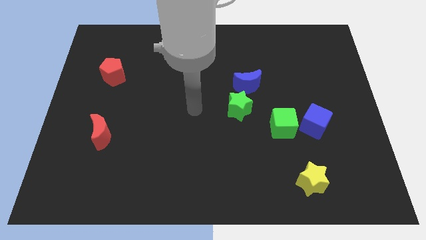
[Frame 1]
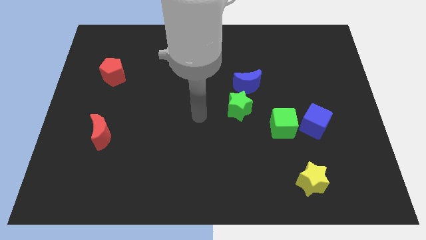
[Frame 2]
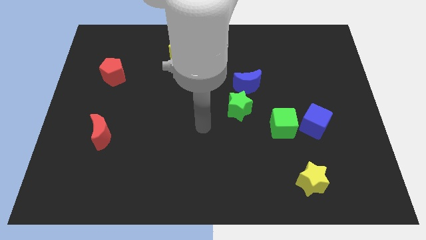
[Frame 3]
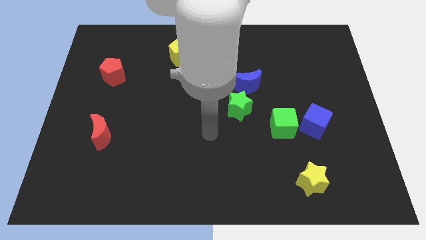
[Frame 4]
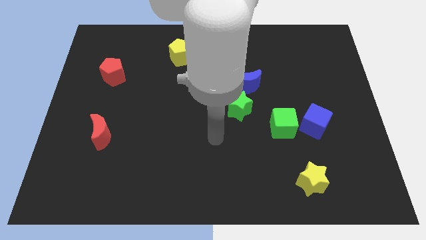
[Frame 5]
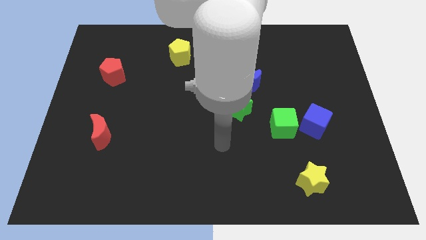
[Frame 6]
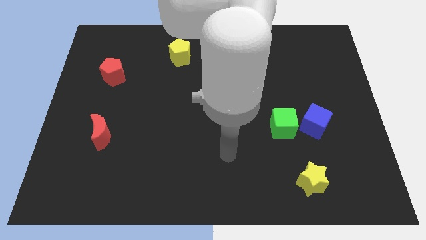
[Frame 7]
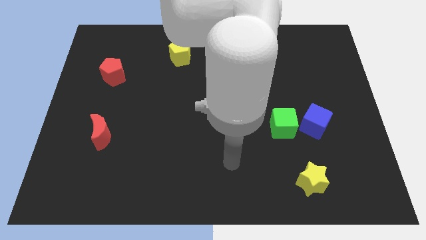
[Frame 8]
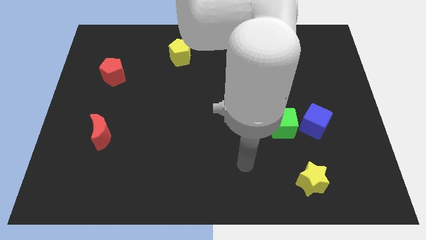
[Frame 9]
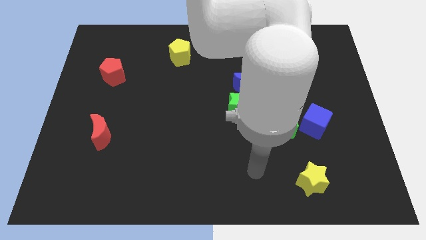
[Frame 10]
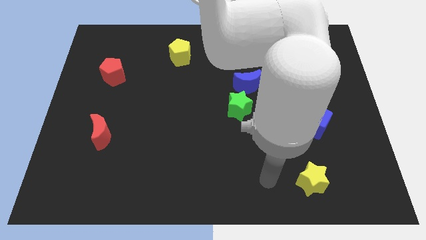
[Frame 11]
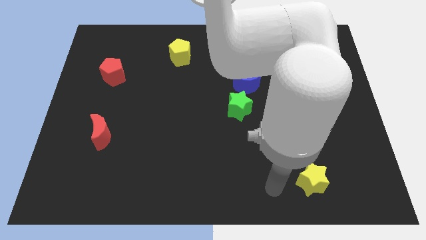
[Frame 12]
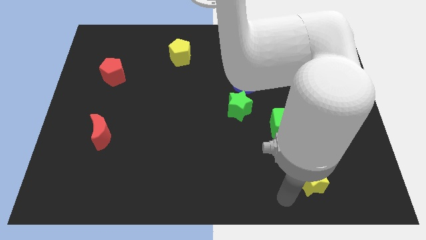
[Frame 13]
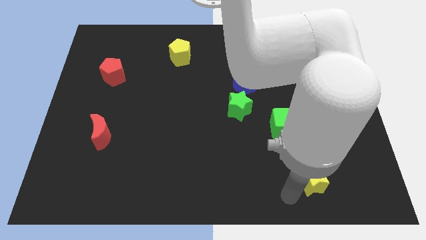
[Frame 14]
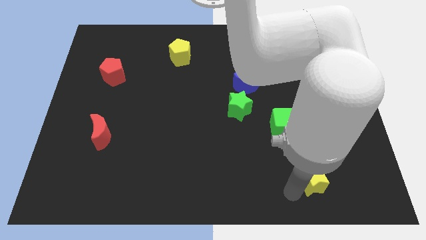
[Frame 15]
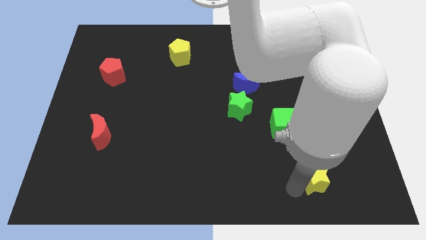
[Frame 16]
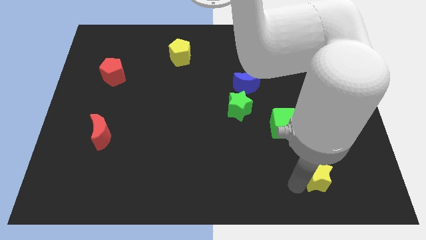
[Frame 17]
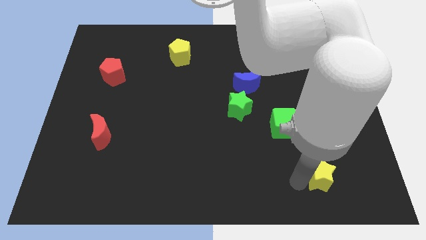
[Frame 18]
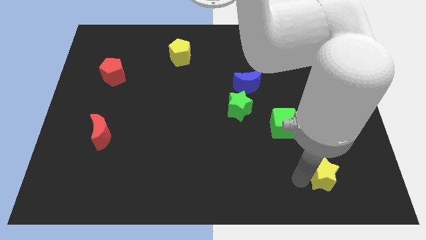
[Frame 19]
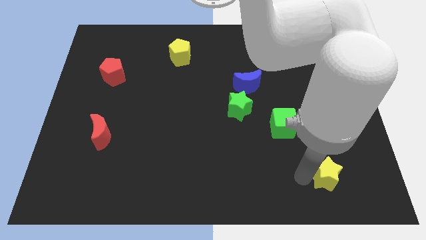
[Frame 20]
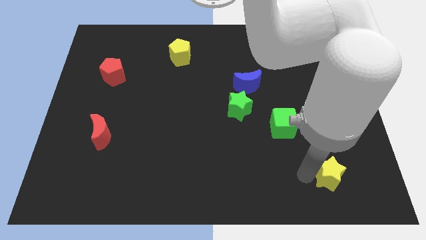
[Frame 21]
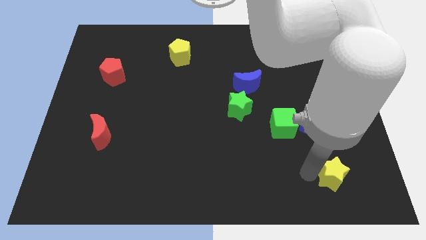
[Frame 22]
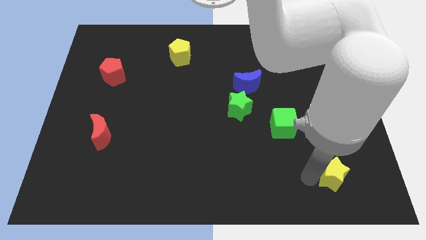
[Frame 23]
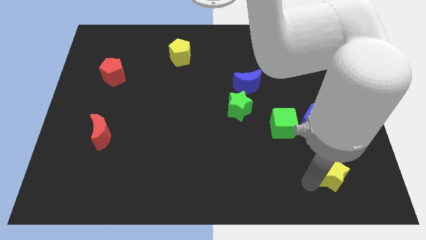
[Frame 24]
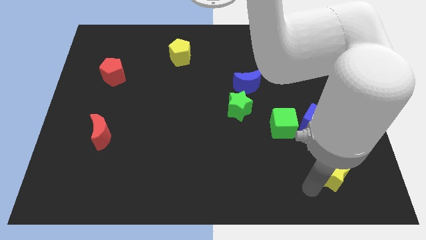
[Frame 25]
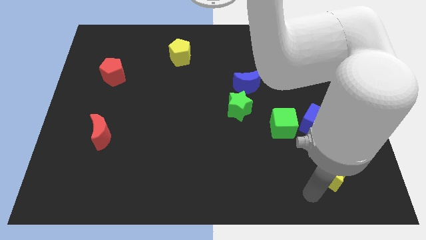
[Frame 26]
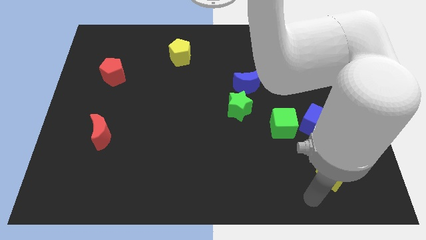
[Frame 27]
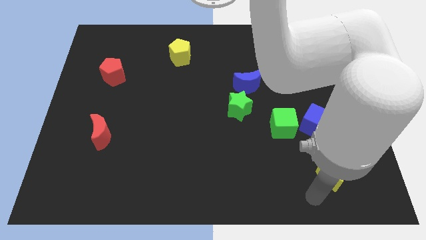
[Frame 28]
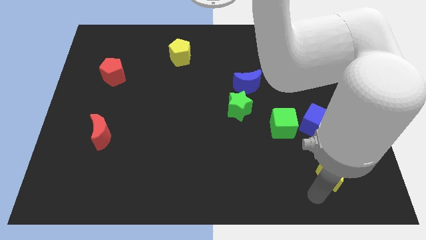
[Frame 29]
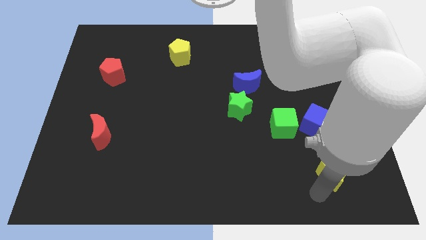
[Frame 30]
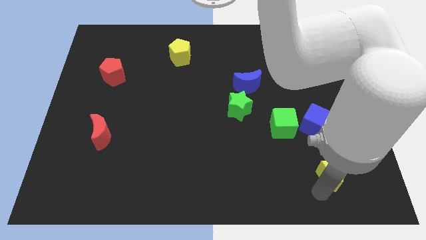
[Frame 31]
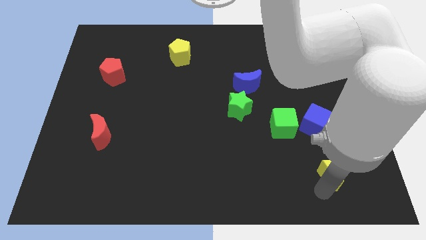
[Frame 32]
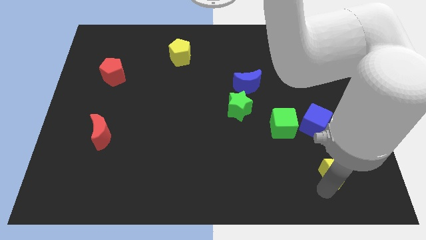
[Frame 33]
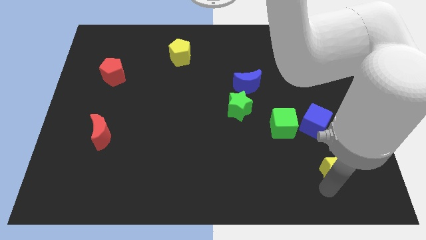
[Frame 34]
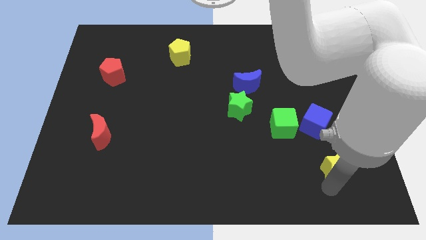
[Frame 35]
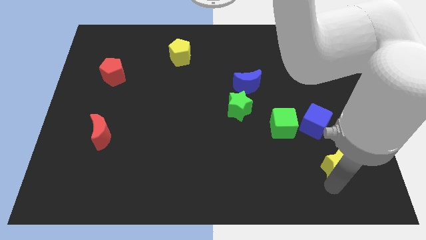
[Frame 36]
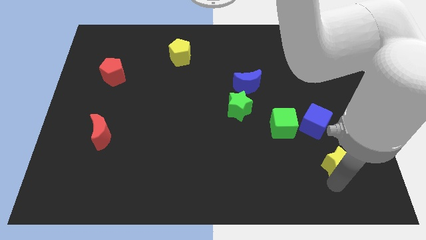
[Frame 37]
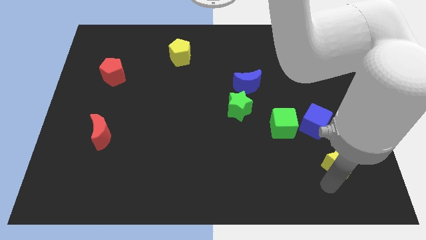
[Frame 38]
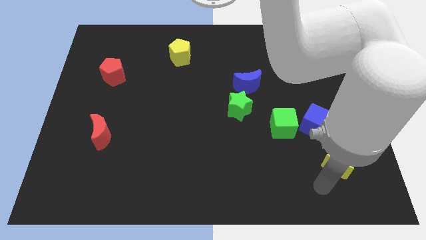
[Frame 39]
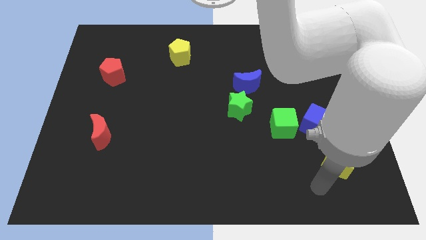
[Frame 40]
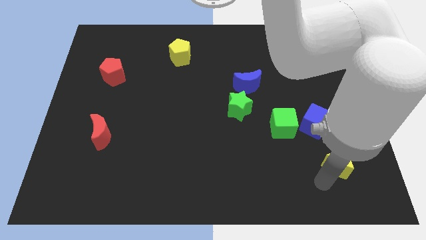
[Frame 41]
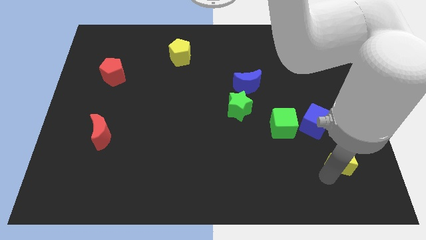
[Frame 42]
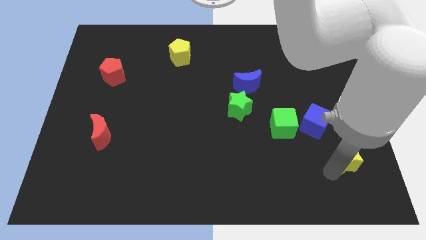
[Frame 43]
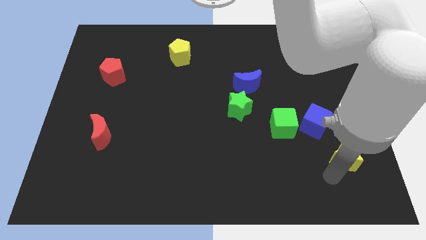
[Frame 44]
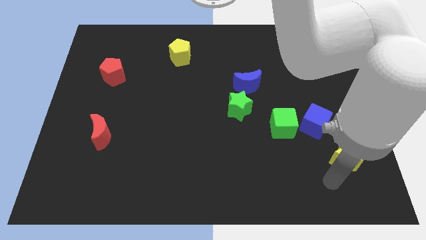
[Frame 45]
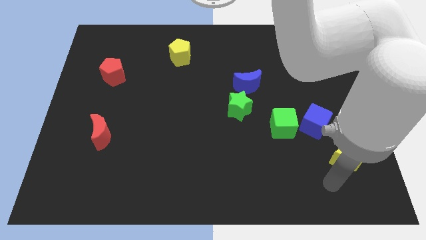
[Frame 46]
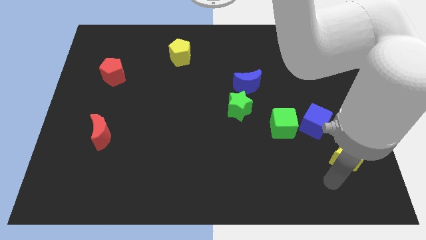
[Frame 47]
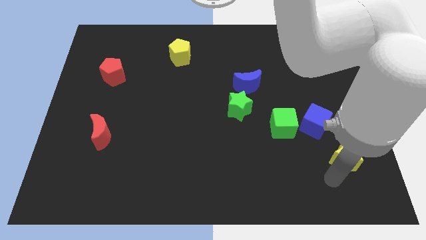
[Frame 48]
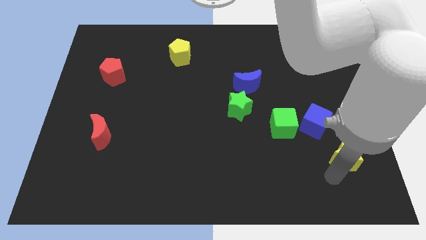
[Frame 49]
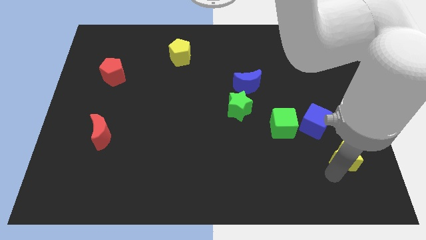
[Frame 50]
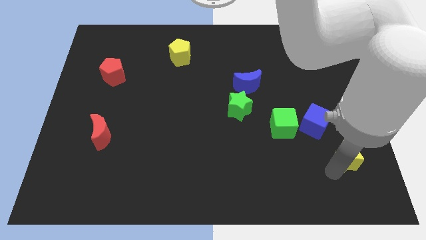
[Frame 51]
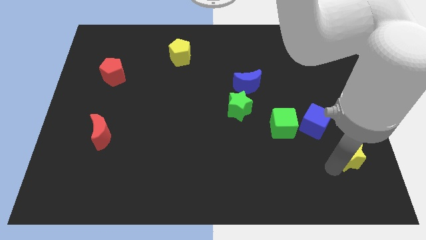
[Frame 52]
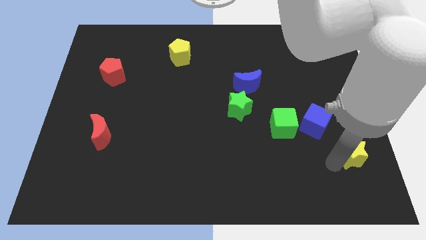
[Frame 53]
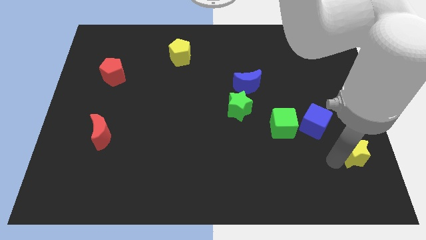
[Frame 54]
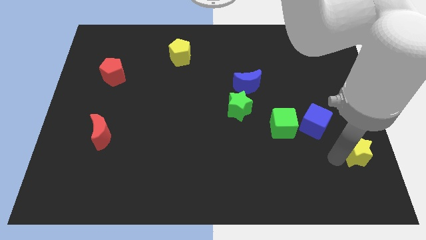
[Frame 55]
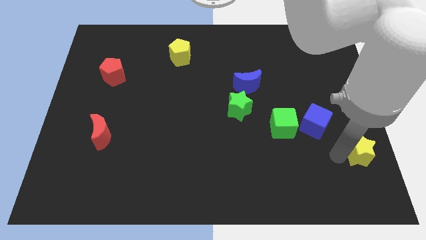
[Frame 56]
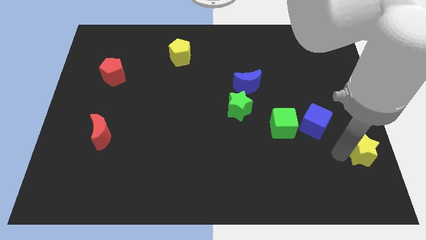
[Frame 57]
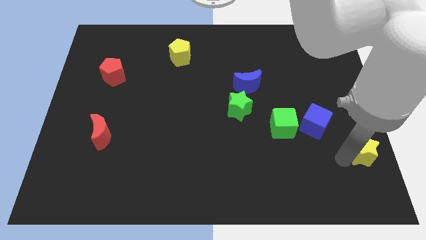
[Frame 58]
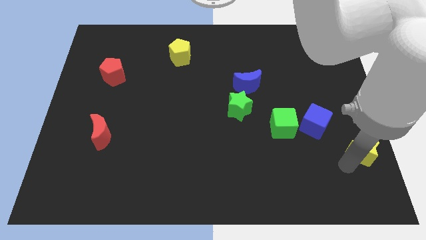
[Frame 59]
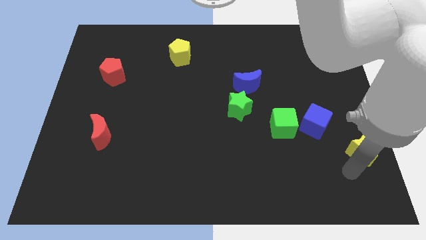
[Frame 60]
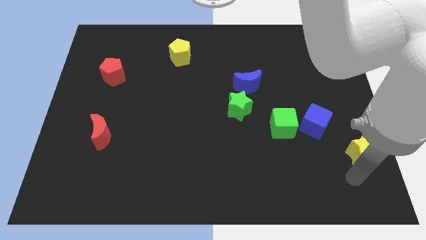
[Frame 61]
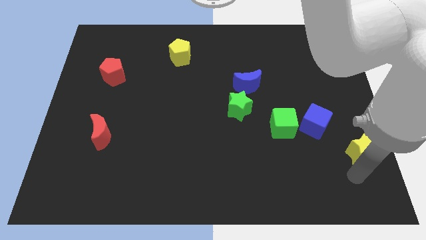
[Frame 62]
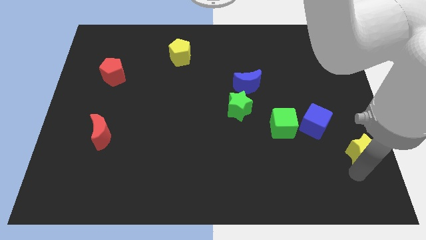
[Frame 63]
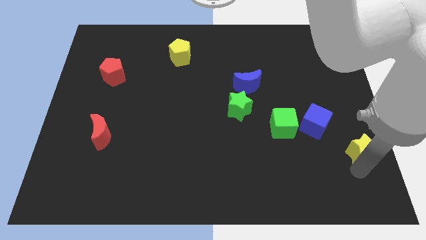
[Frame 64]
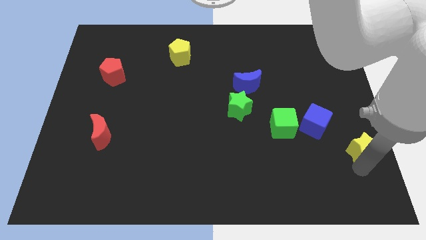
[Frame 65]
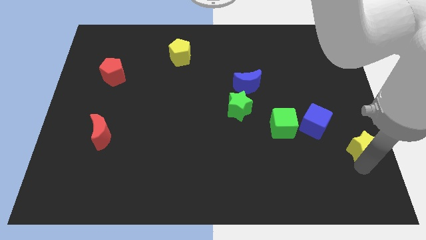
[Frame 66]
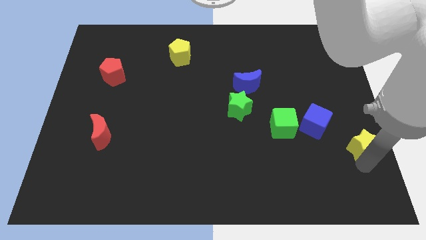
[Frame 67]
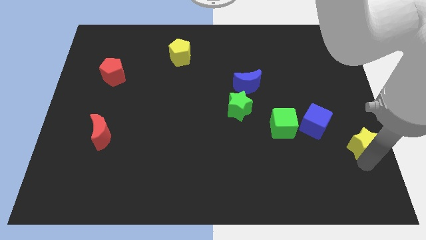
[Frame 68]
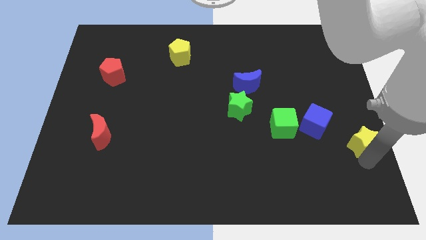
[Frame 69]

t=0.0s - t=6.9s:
slide the yellow star to the right side of the board
